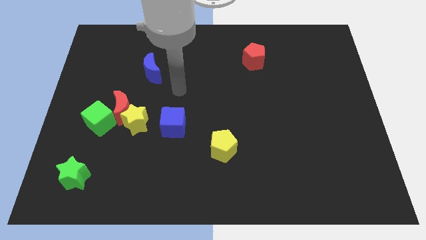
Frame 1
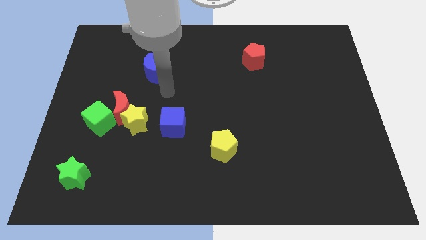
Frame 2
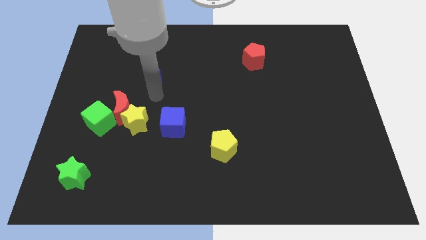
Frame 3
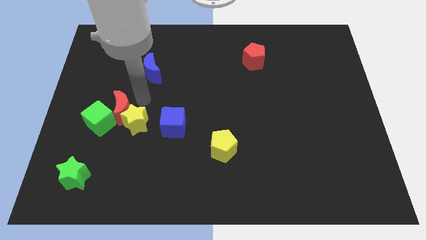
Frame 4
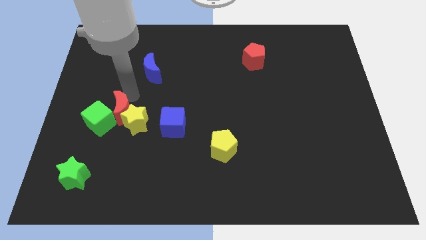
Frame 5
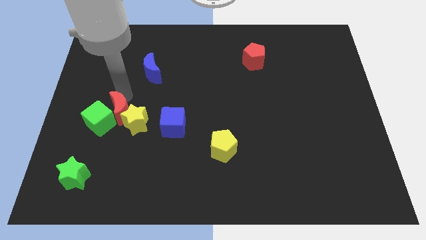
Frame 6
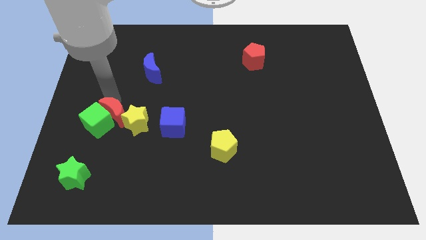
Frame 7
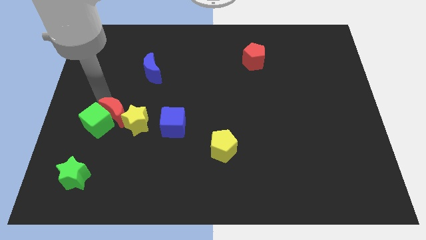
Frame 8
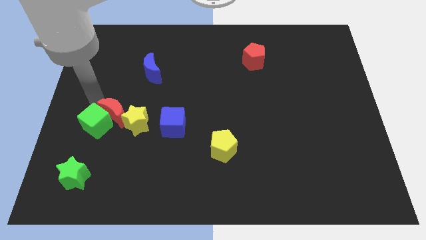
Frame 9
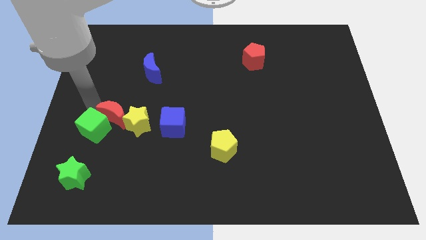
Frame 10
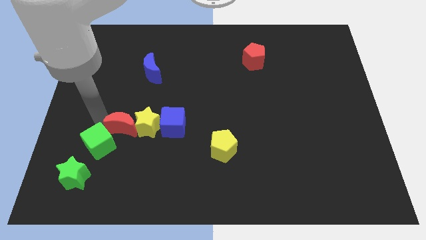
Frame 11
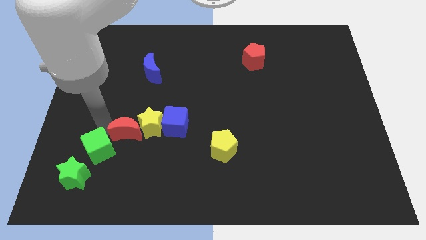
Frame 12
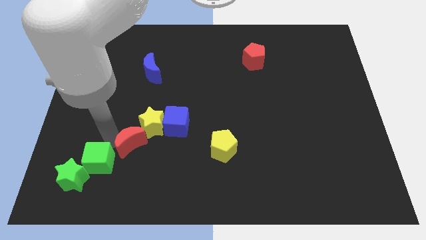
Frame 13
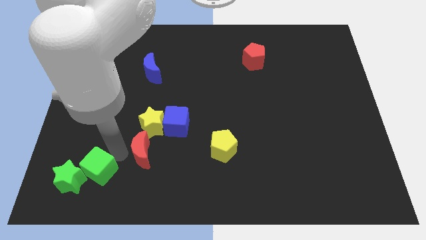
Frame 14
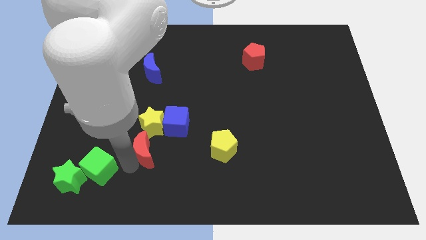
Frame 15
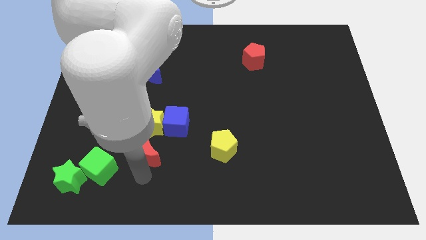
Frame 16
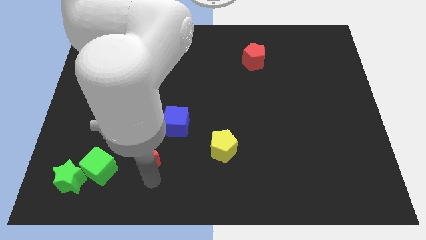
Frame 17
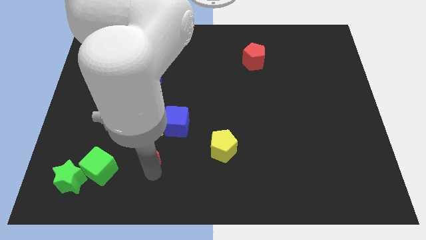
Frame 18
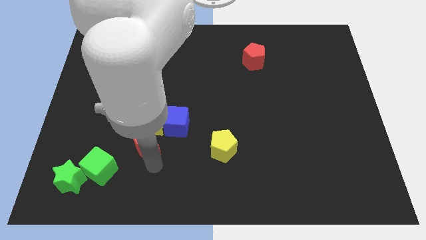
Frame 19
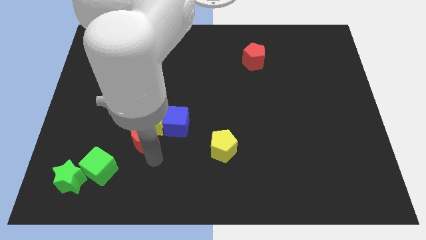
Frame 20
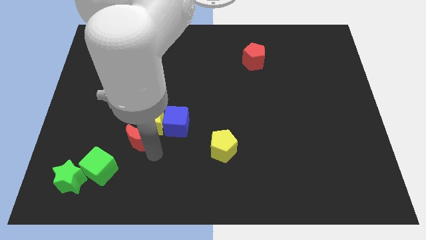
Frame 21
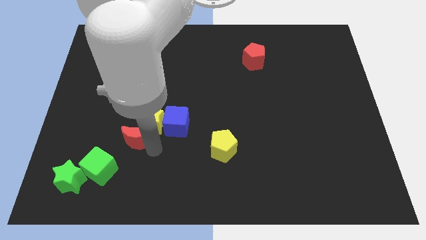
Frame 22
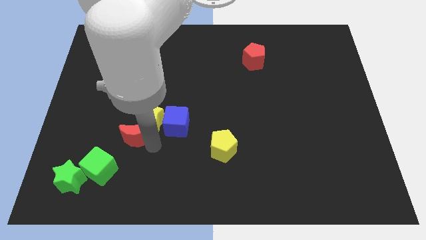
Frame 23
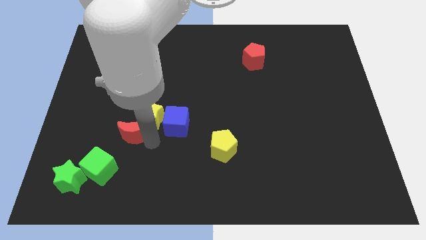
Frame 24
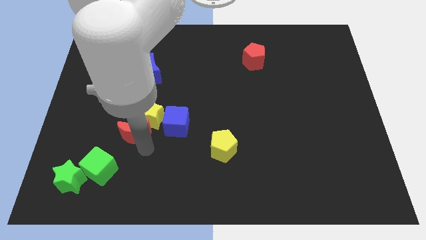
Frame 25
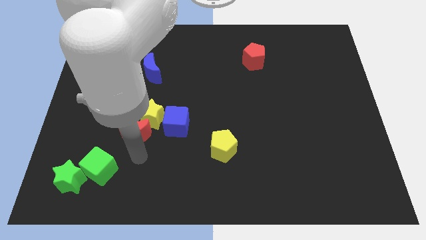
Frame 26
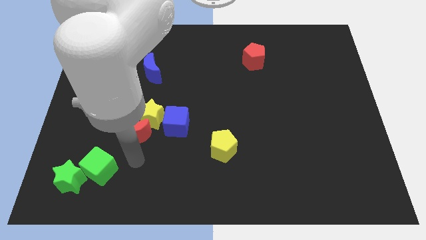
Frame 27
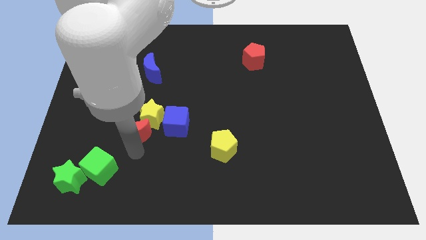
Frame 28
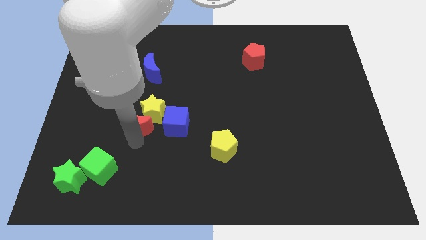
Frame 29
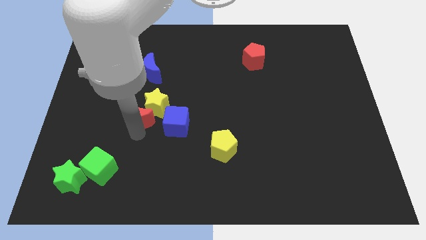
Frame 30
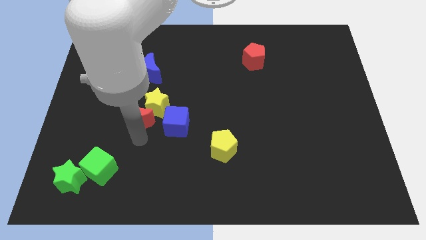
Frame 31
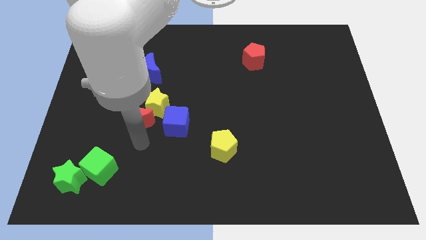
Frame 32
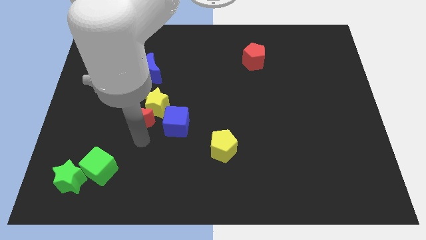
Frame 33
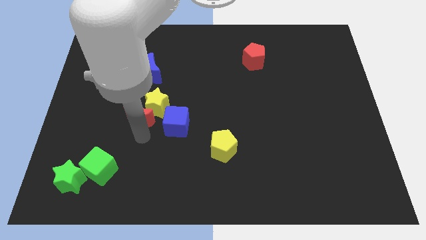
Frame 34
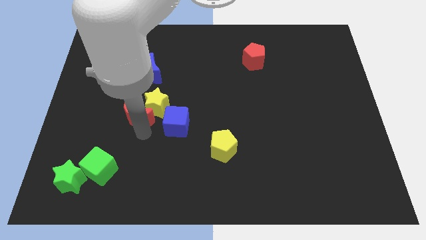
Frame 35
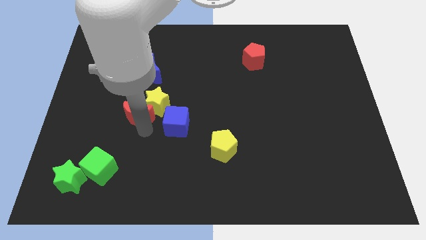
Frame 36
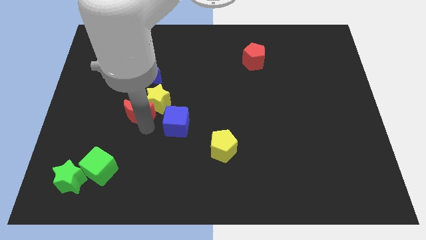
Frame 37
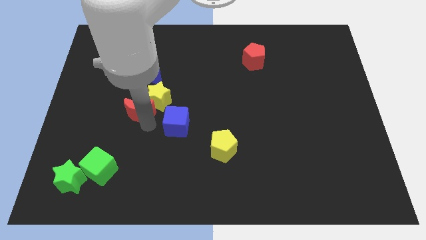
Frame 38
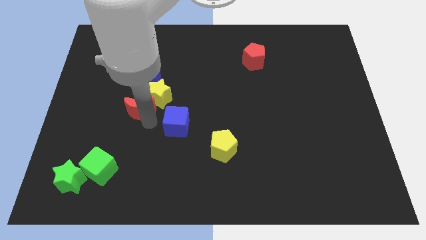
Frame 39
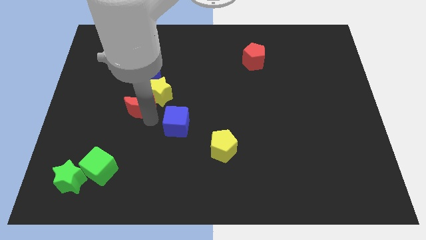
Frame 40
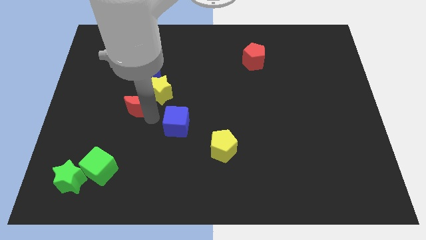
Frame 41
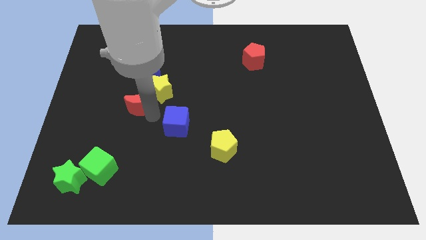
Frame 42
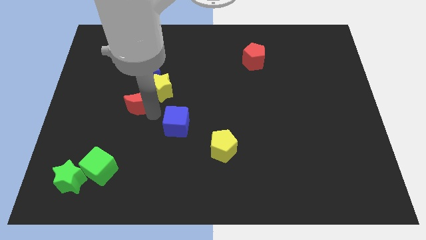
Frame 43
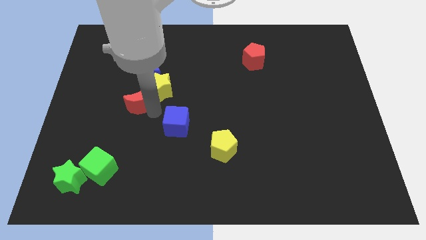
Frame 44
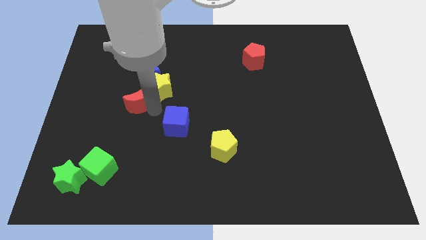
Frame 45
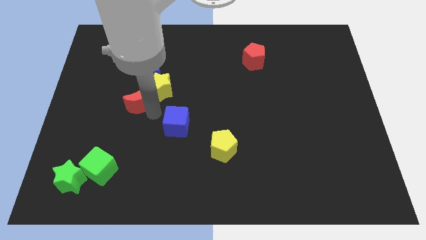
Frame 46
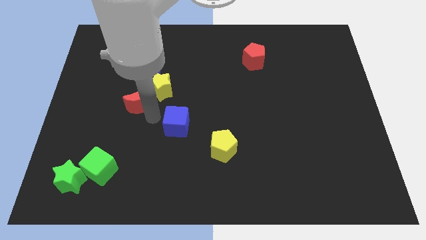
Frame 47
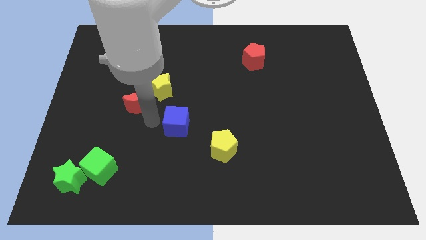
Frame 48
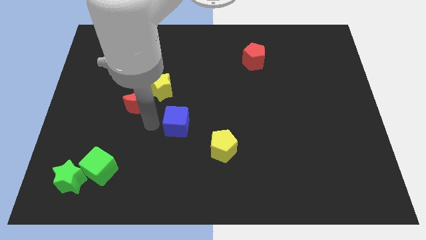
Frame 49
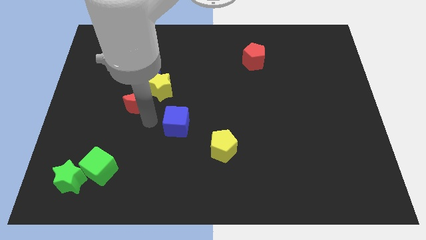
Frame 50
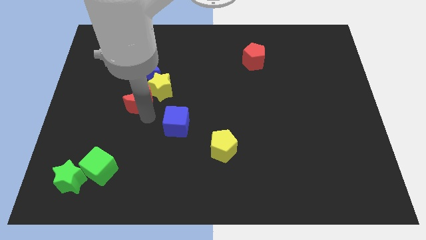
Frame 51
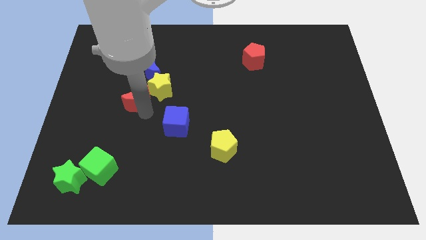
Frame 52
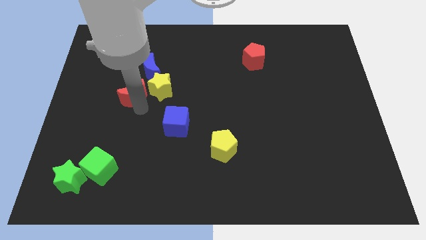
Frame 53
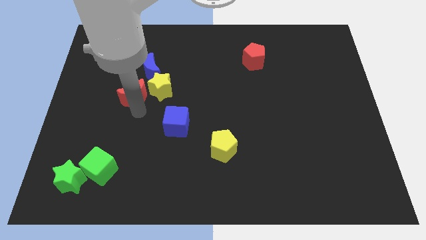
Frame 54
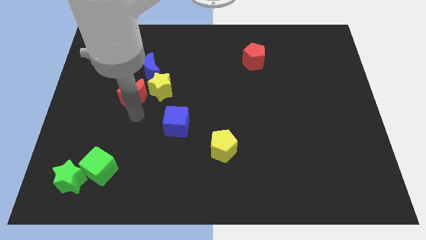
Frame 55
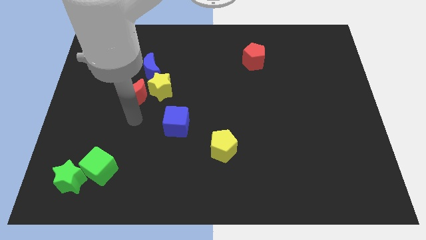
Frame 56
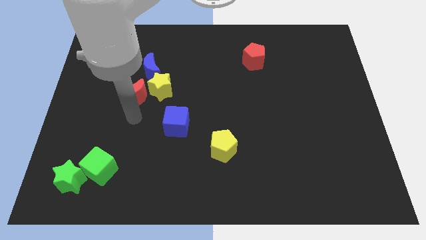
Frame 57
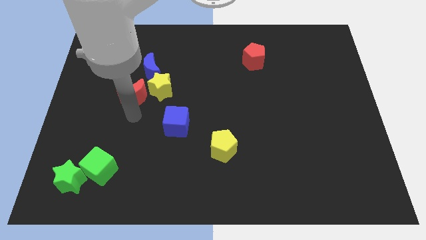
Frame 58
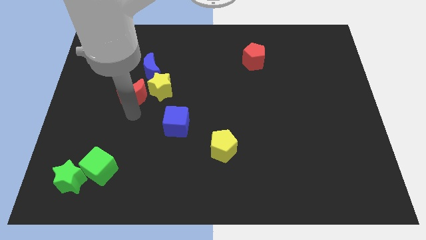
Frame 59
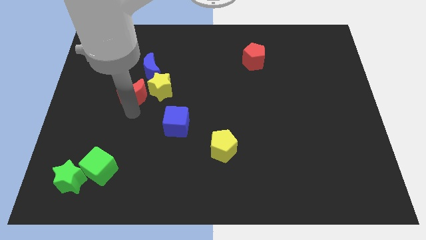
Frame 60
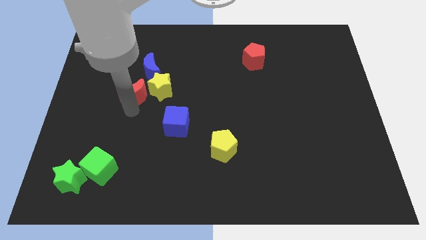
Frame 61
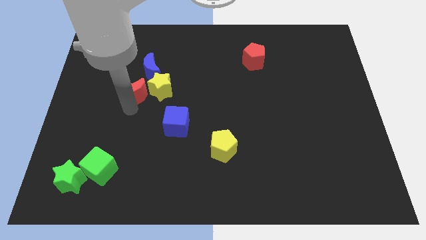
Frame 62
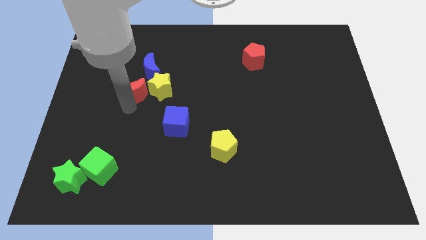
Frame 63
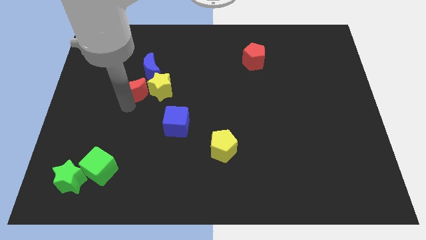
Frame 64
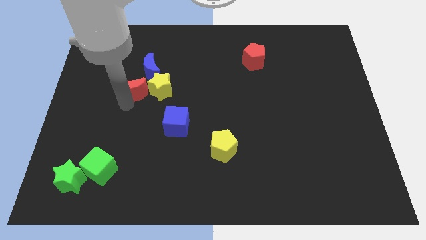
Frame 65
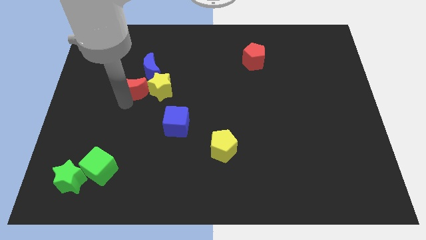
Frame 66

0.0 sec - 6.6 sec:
pull the red moon apart from the yellow star and green cube

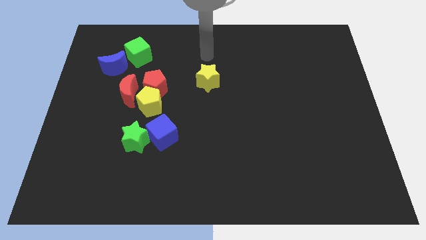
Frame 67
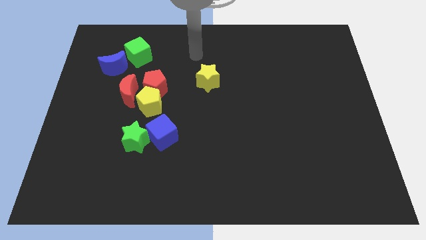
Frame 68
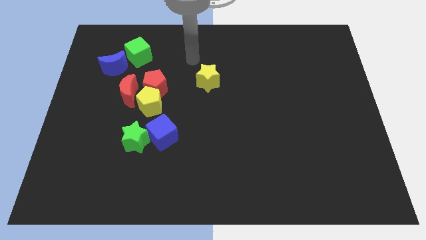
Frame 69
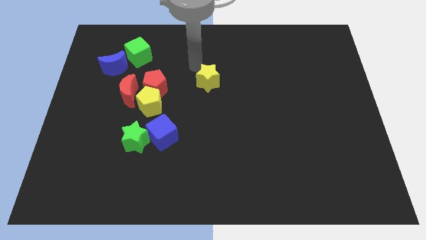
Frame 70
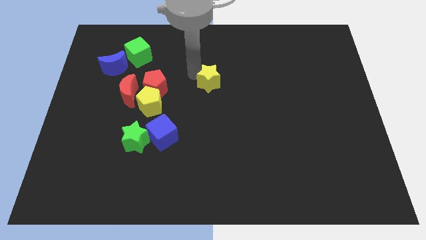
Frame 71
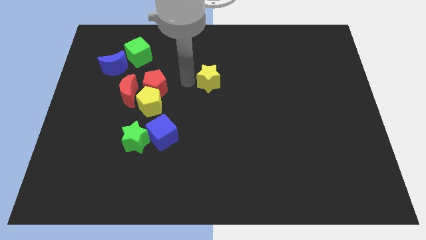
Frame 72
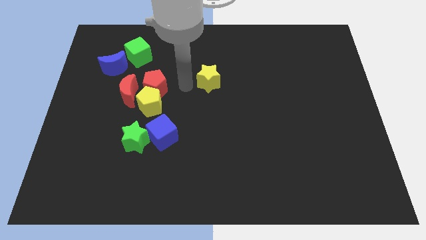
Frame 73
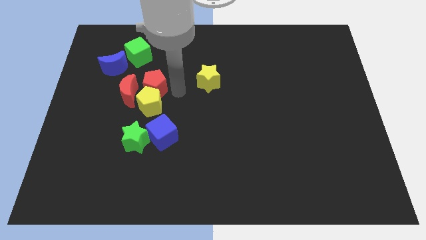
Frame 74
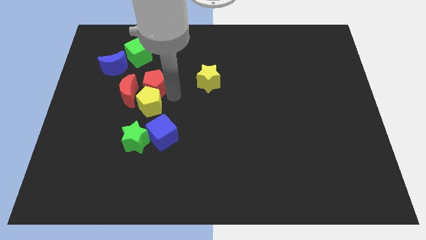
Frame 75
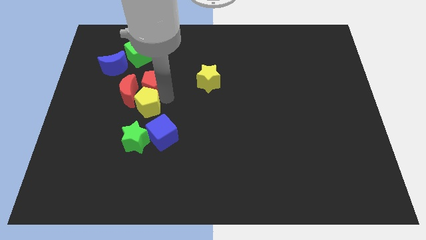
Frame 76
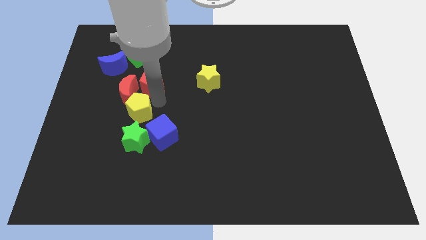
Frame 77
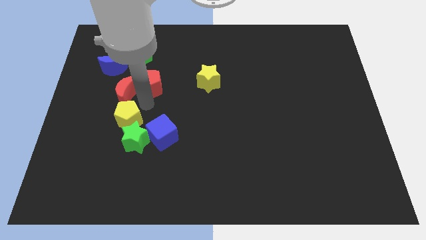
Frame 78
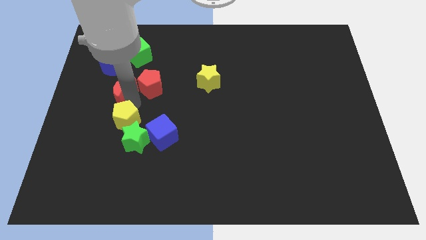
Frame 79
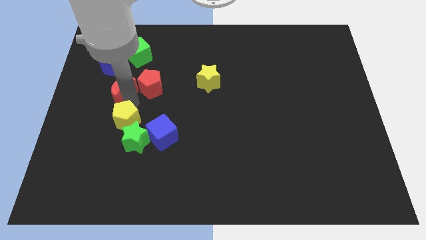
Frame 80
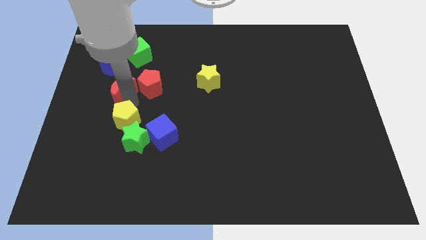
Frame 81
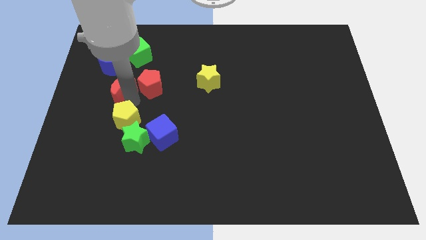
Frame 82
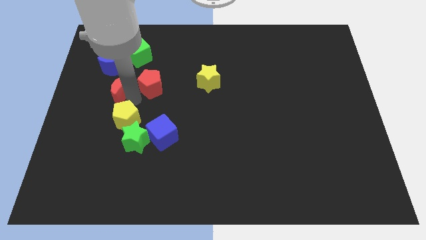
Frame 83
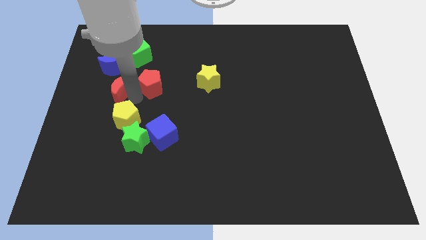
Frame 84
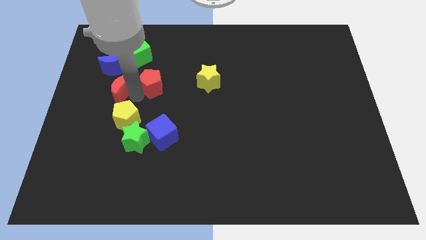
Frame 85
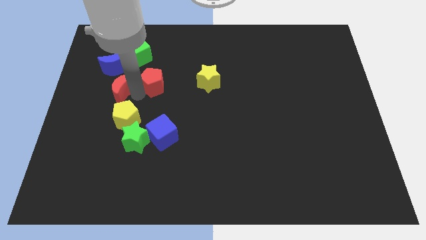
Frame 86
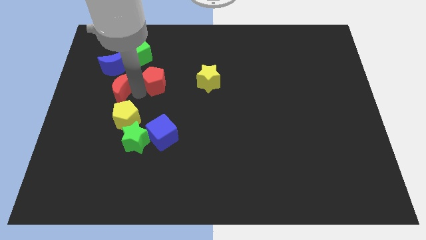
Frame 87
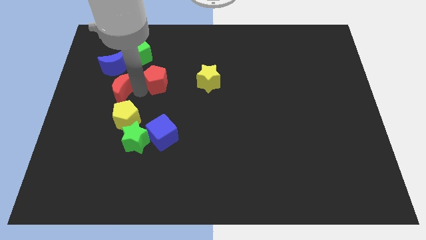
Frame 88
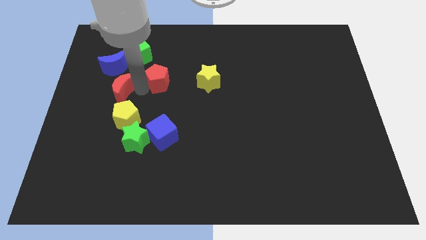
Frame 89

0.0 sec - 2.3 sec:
separate the red pentagon from the yellow pentagon and red moon

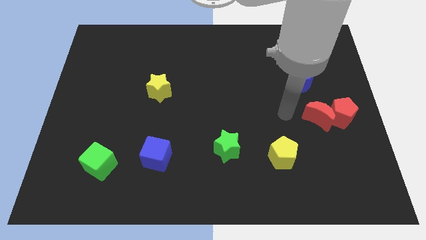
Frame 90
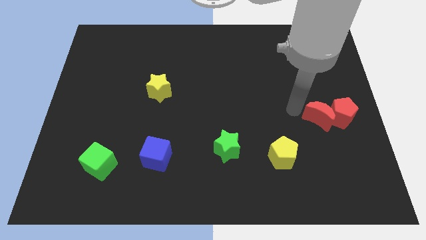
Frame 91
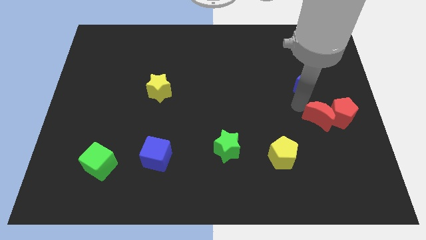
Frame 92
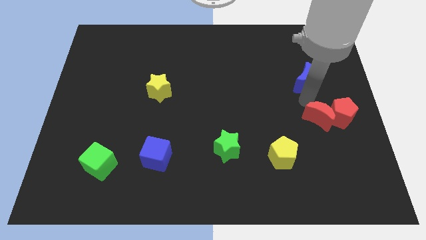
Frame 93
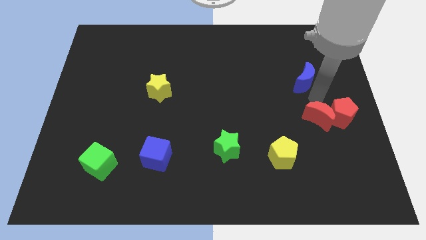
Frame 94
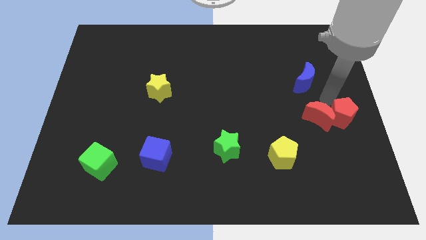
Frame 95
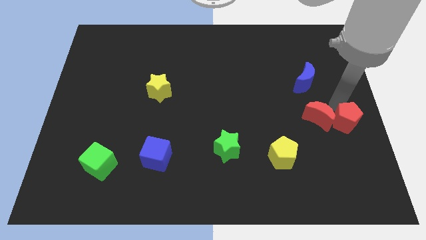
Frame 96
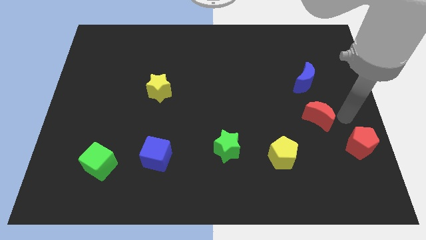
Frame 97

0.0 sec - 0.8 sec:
pull the red moon apart from the red pentagon
